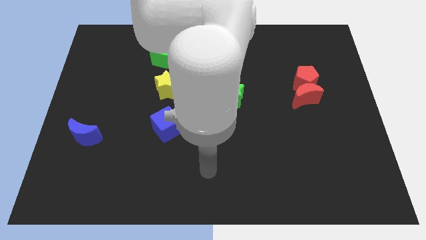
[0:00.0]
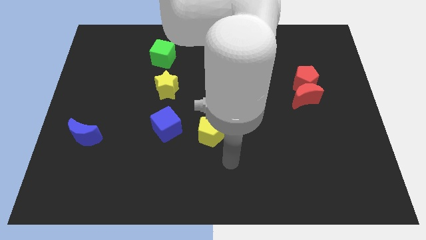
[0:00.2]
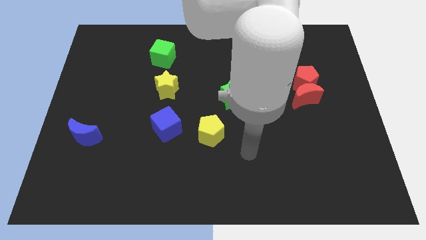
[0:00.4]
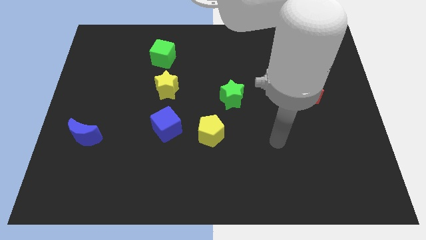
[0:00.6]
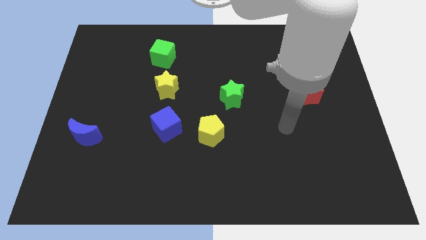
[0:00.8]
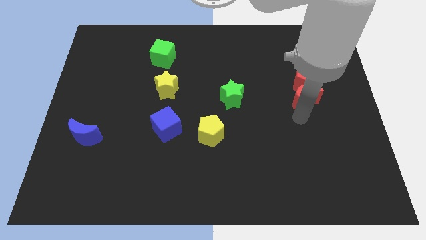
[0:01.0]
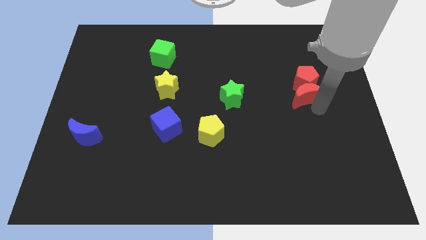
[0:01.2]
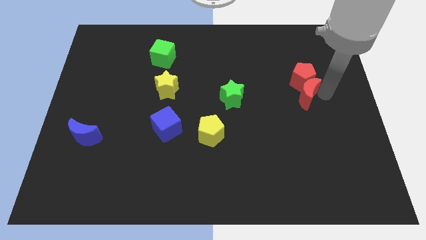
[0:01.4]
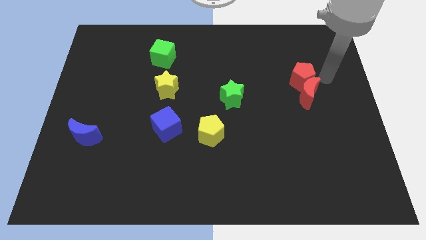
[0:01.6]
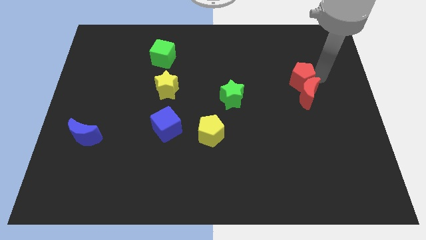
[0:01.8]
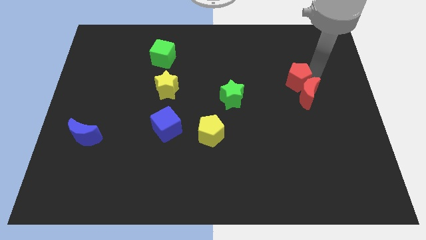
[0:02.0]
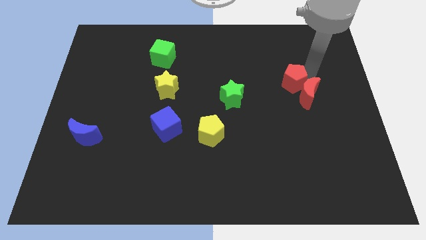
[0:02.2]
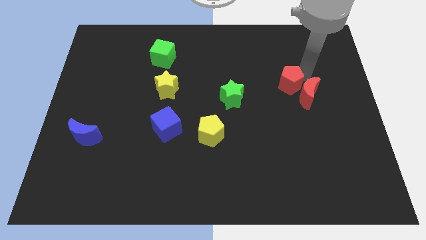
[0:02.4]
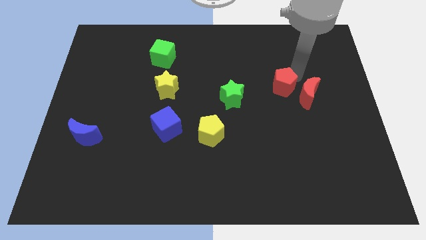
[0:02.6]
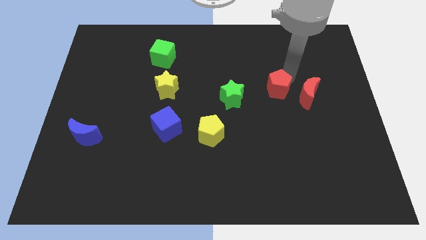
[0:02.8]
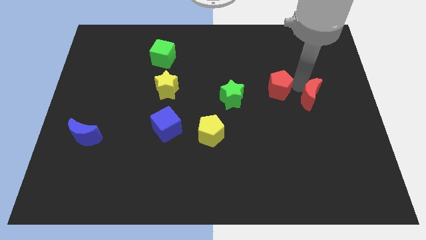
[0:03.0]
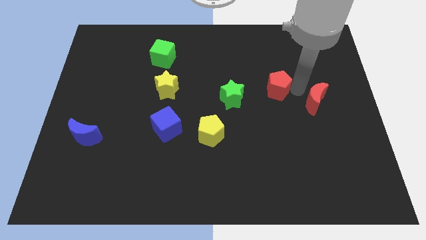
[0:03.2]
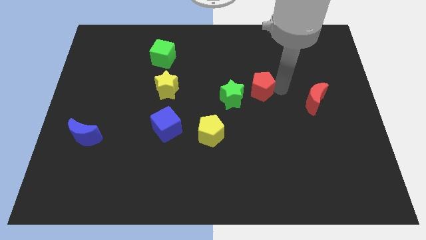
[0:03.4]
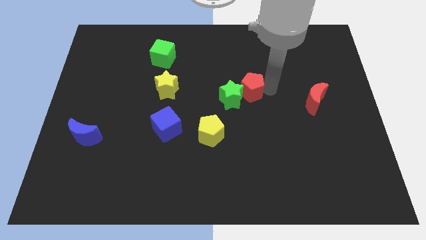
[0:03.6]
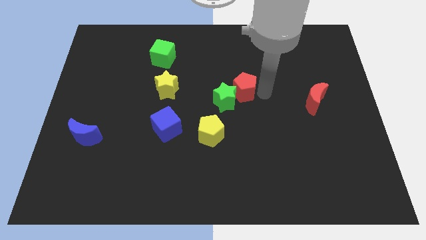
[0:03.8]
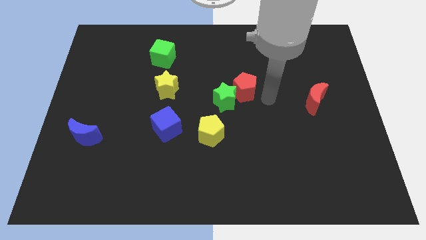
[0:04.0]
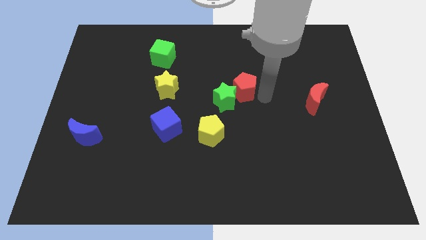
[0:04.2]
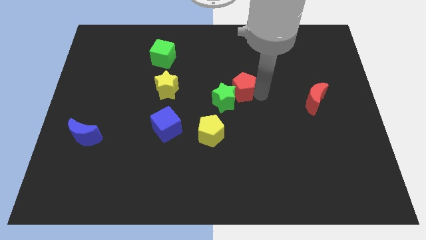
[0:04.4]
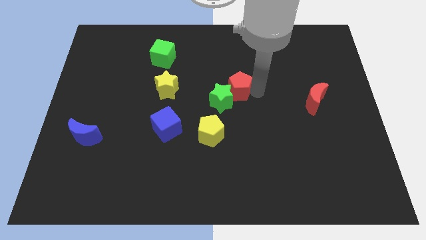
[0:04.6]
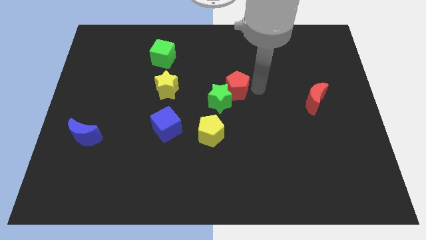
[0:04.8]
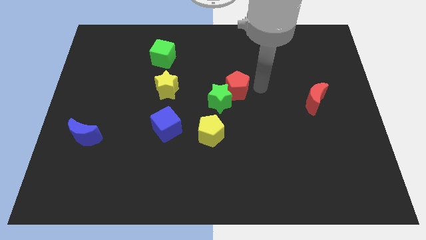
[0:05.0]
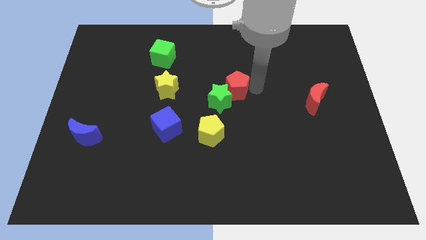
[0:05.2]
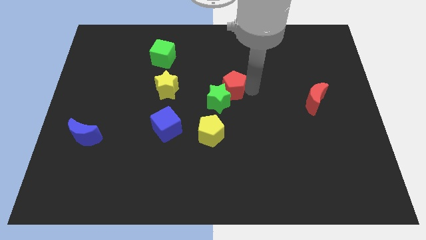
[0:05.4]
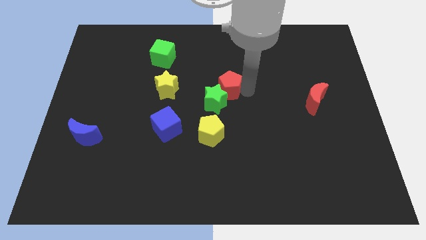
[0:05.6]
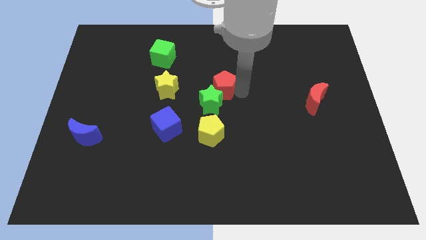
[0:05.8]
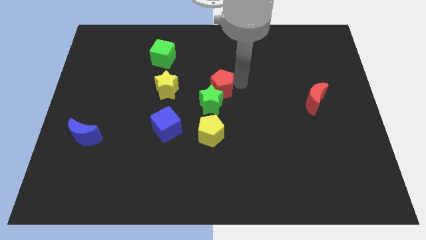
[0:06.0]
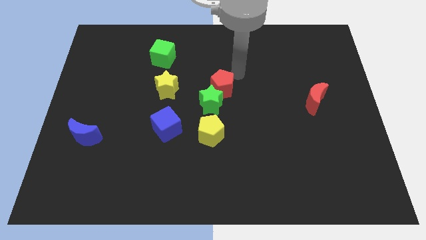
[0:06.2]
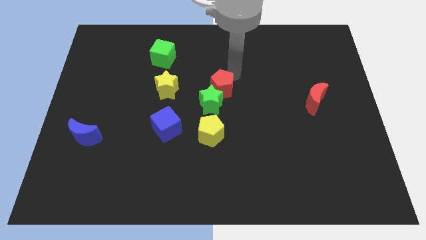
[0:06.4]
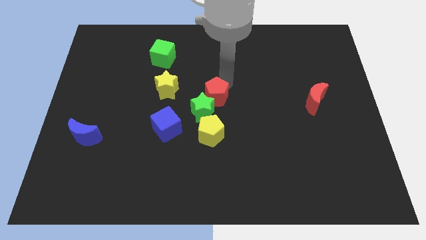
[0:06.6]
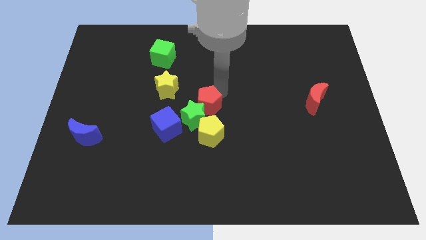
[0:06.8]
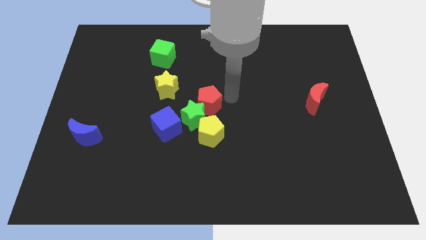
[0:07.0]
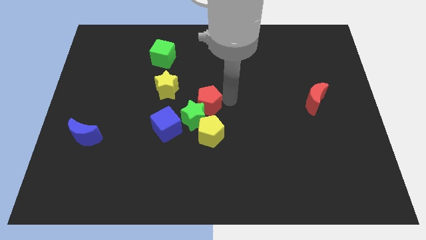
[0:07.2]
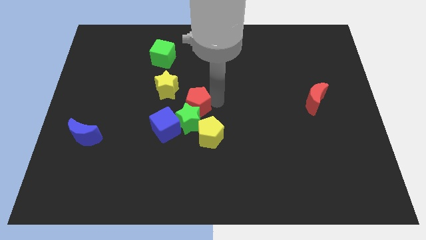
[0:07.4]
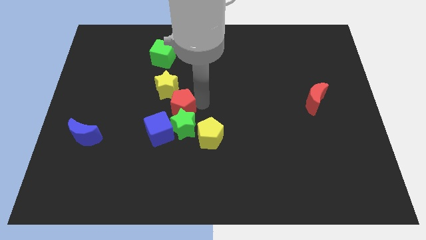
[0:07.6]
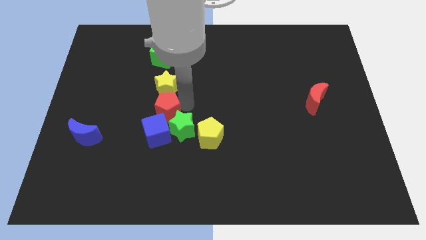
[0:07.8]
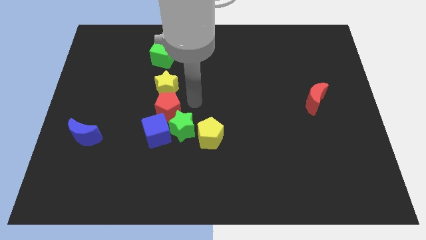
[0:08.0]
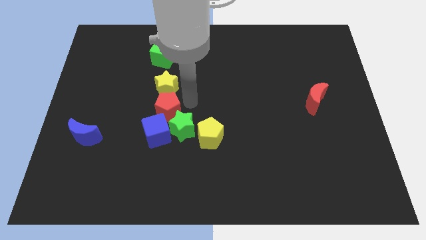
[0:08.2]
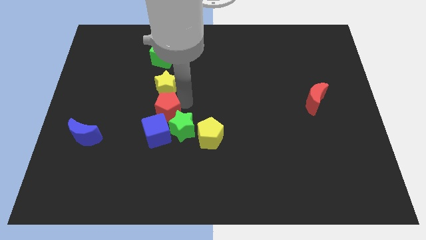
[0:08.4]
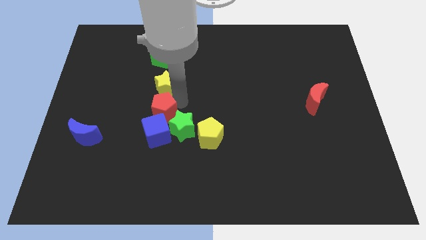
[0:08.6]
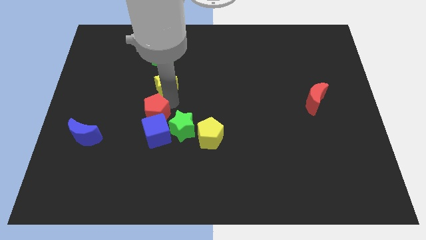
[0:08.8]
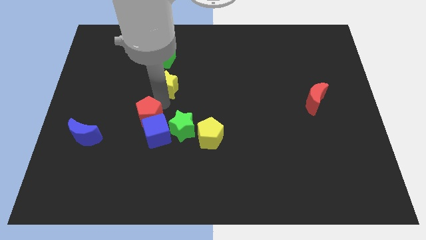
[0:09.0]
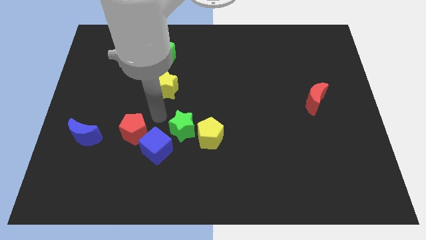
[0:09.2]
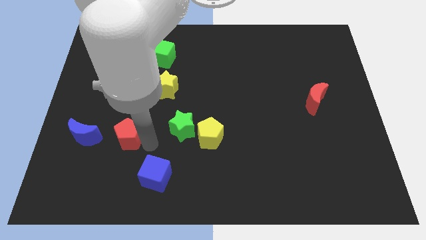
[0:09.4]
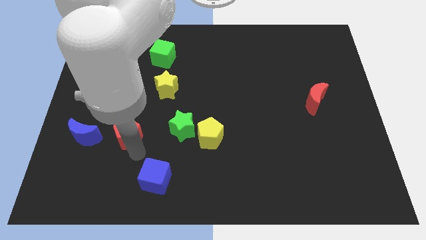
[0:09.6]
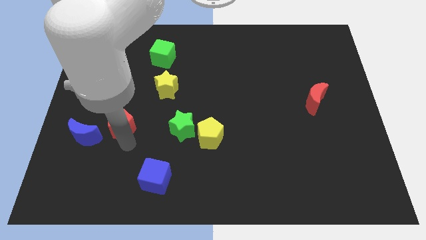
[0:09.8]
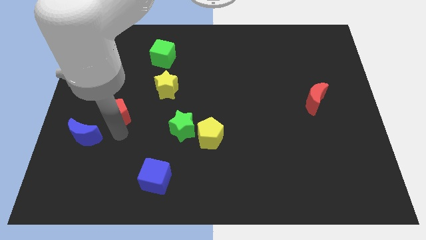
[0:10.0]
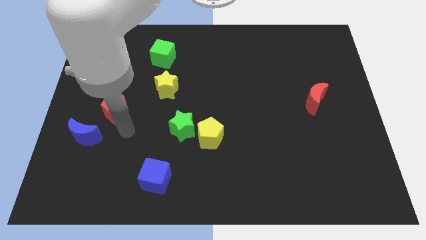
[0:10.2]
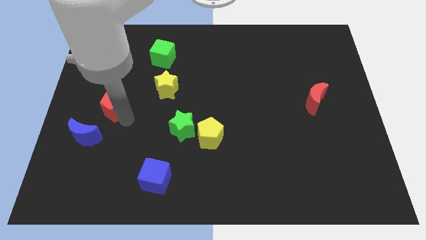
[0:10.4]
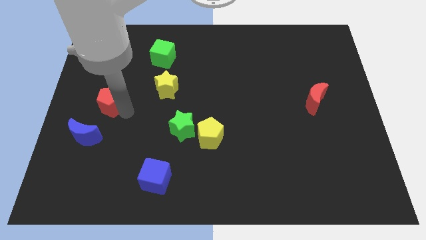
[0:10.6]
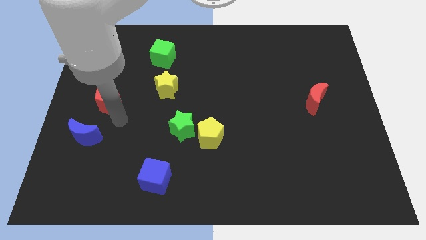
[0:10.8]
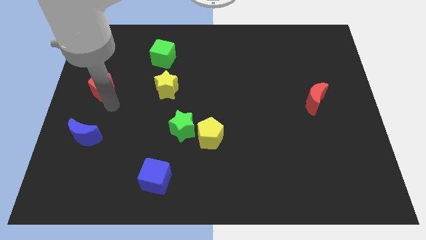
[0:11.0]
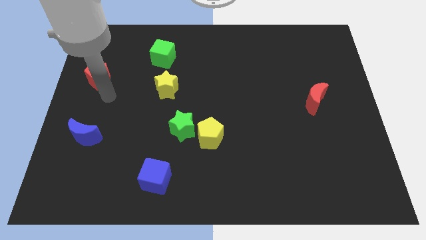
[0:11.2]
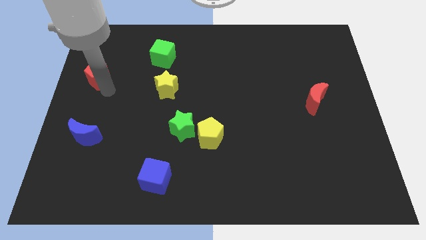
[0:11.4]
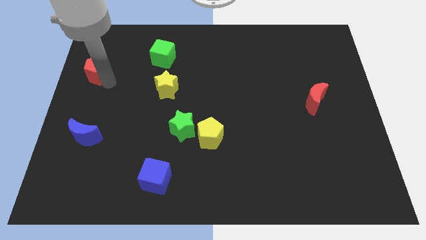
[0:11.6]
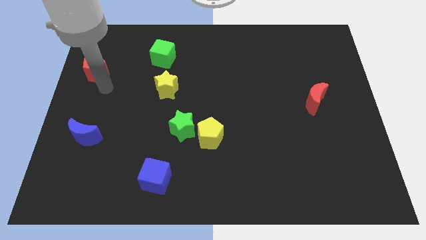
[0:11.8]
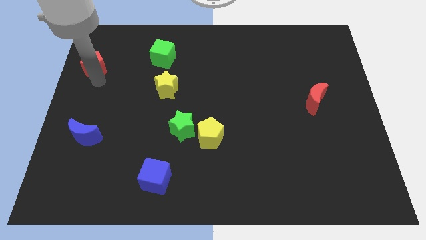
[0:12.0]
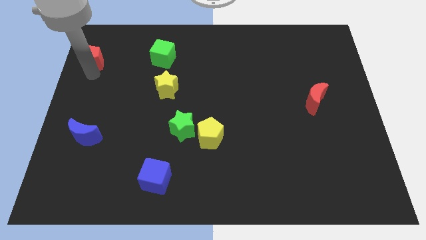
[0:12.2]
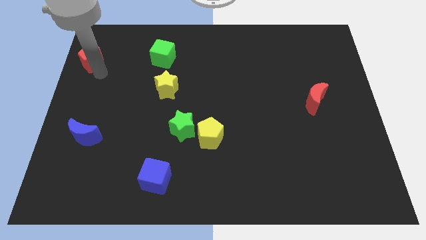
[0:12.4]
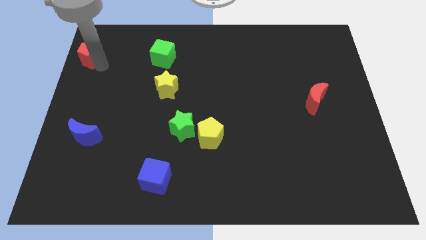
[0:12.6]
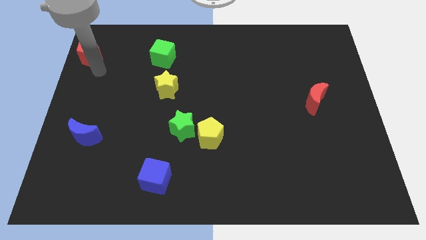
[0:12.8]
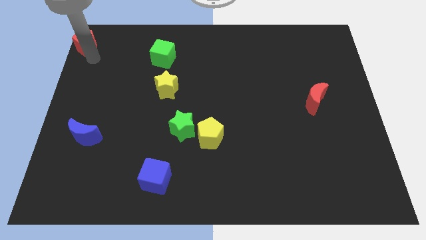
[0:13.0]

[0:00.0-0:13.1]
move the red pentagon to the top left

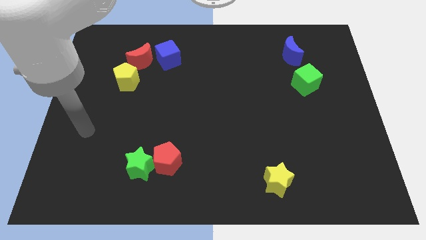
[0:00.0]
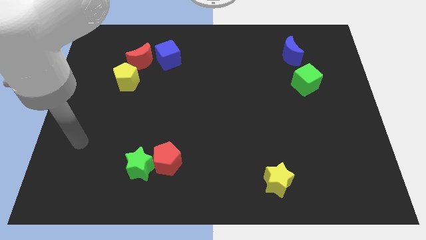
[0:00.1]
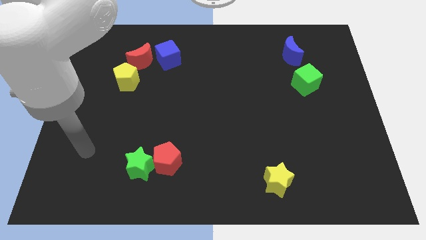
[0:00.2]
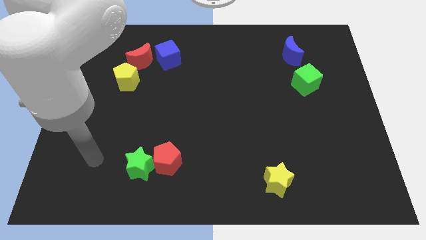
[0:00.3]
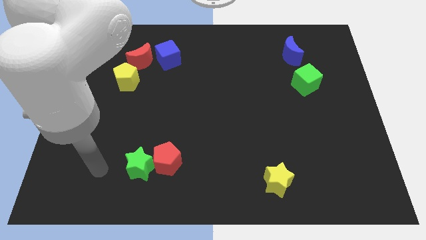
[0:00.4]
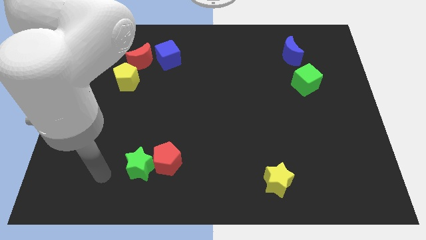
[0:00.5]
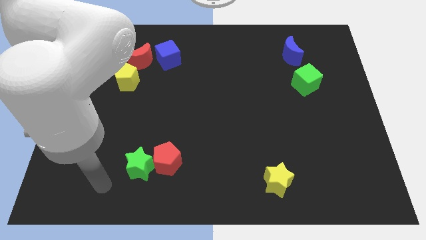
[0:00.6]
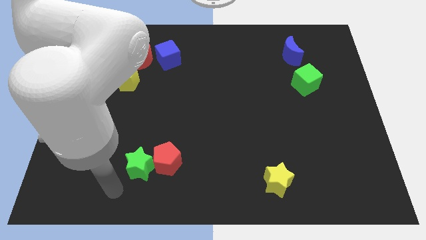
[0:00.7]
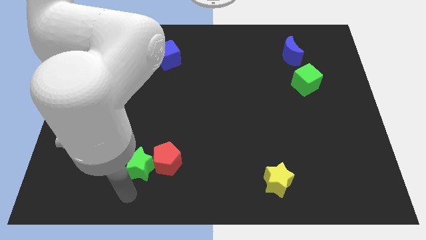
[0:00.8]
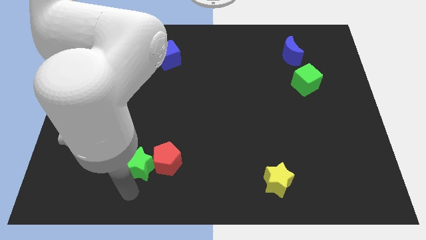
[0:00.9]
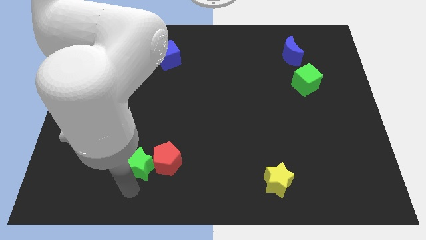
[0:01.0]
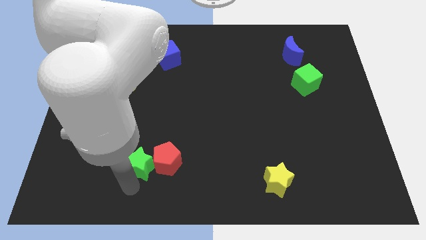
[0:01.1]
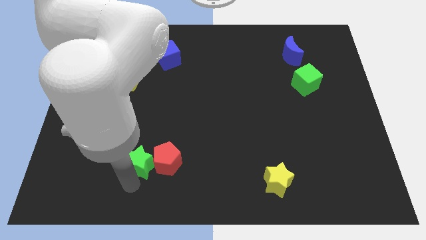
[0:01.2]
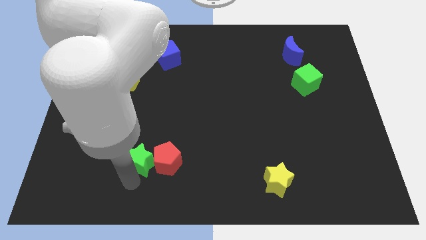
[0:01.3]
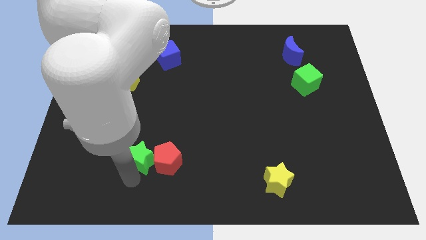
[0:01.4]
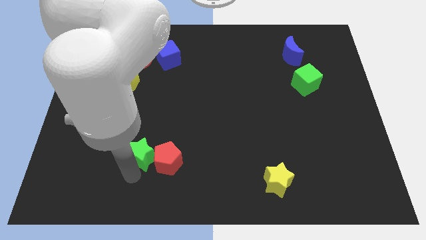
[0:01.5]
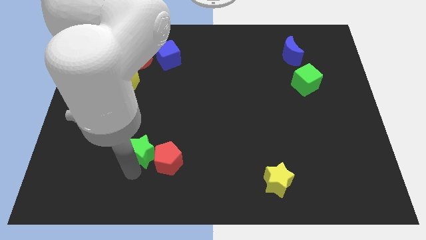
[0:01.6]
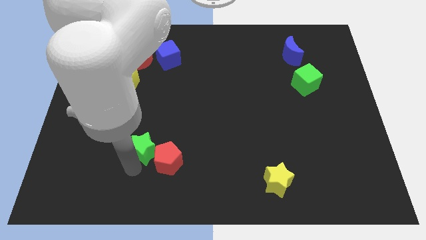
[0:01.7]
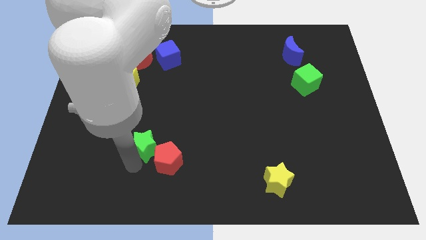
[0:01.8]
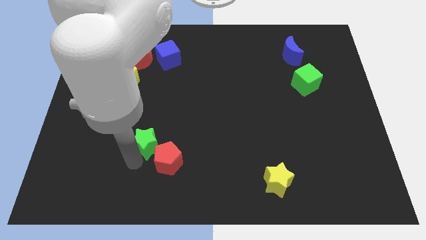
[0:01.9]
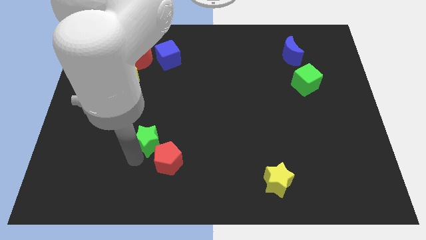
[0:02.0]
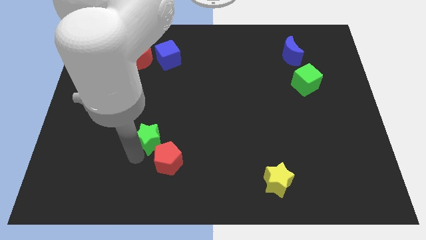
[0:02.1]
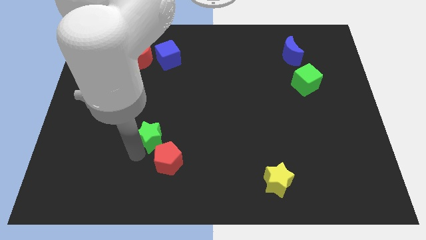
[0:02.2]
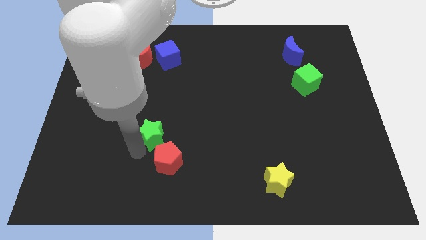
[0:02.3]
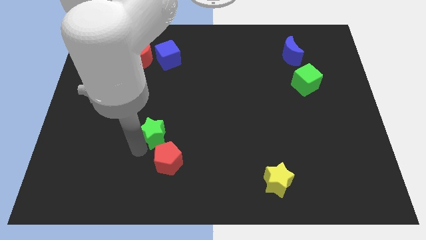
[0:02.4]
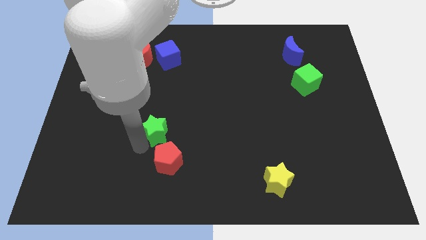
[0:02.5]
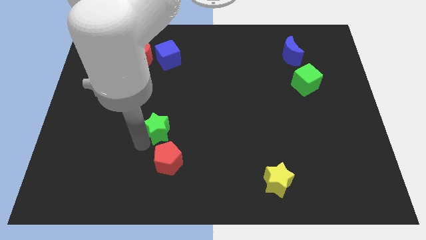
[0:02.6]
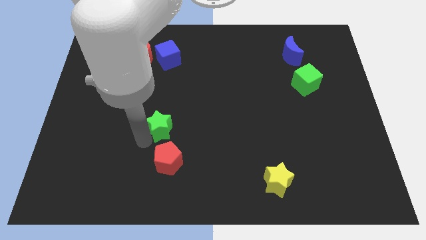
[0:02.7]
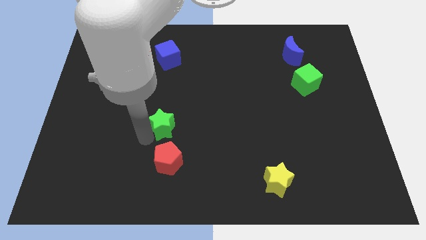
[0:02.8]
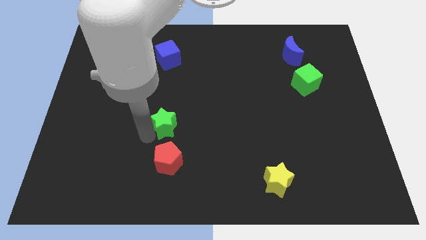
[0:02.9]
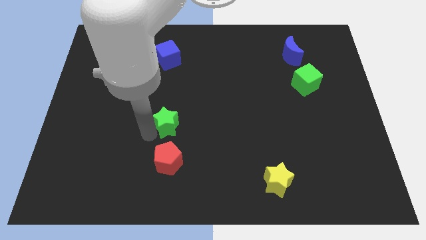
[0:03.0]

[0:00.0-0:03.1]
put the green star to the middle of the board
